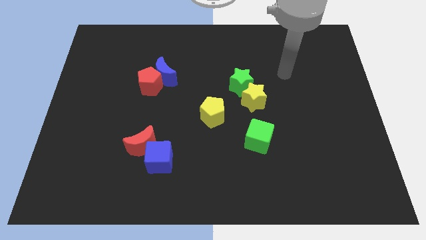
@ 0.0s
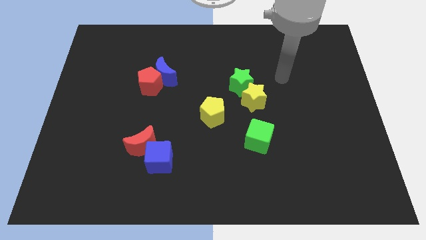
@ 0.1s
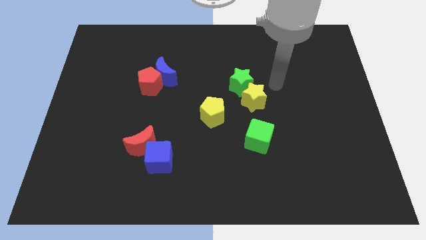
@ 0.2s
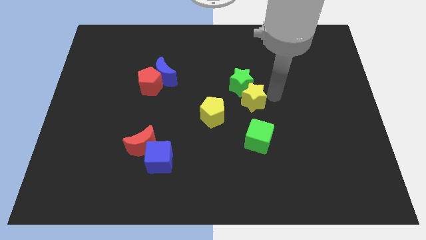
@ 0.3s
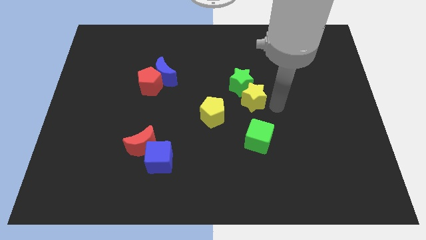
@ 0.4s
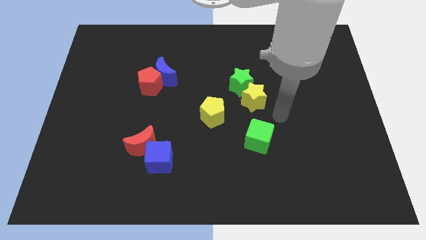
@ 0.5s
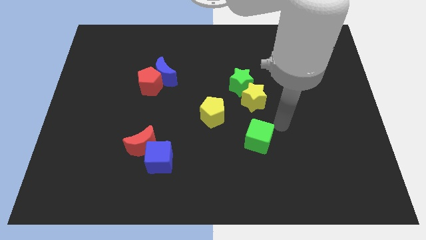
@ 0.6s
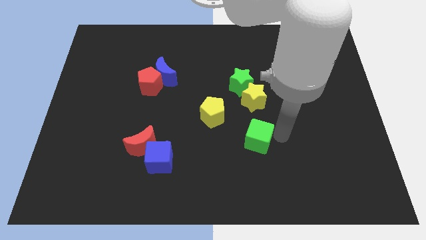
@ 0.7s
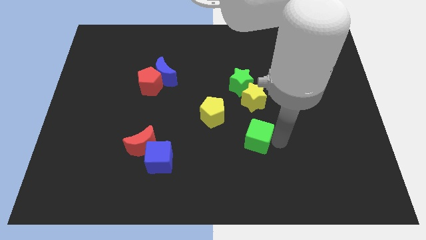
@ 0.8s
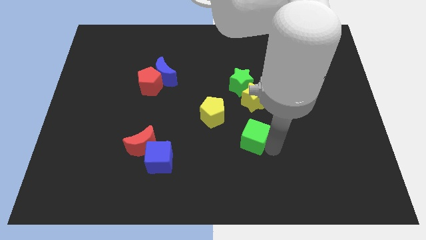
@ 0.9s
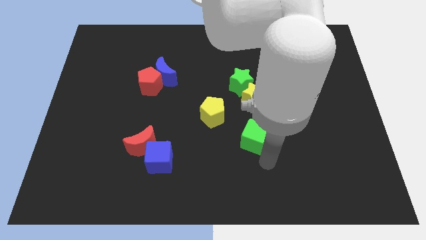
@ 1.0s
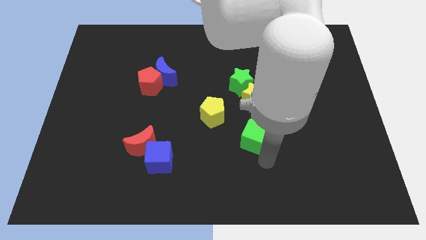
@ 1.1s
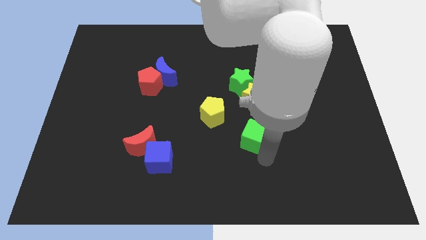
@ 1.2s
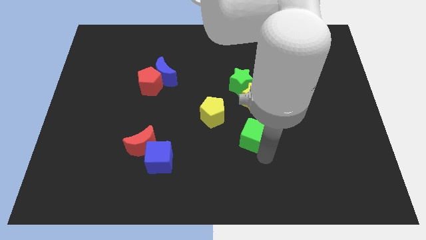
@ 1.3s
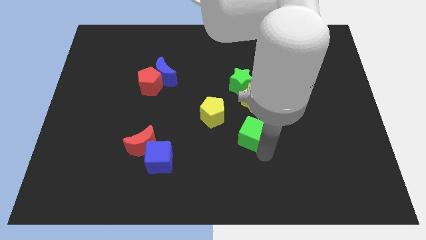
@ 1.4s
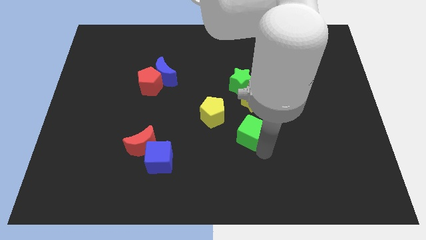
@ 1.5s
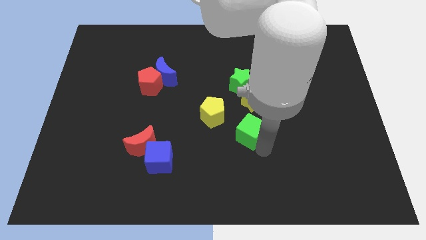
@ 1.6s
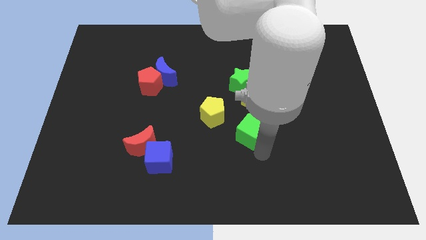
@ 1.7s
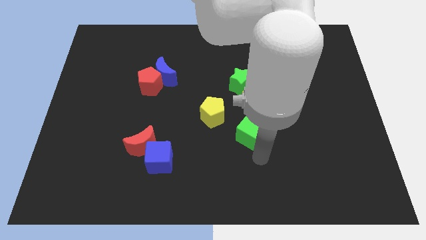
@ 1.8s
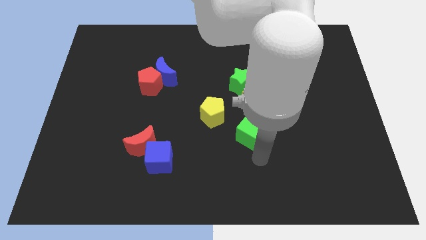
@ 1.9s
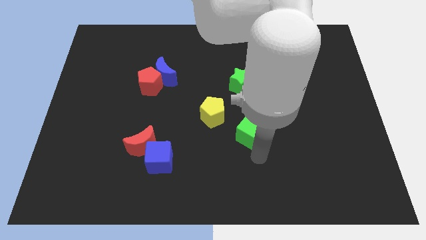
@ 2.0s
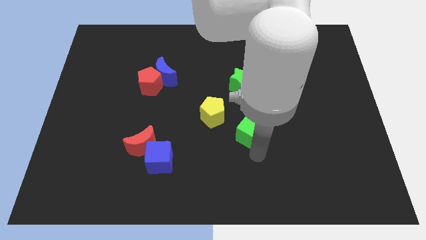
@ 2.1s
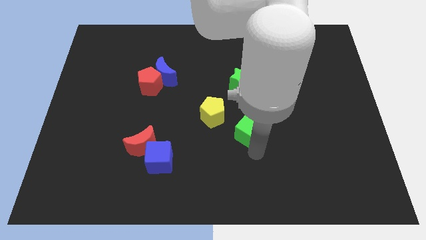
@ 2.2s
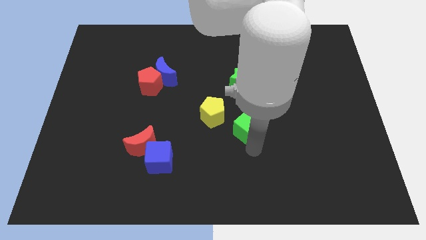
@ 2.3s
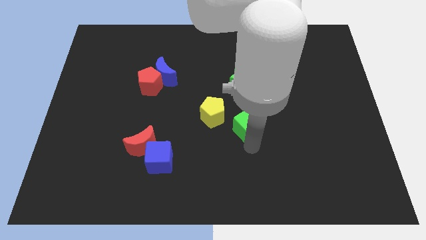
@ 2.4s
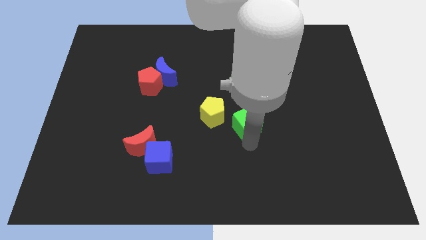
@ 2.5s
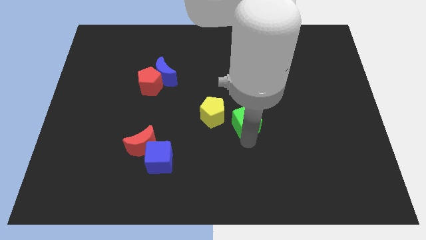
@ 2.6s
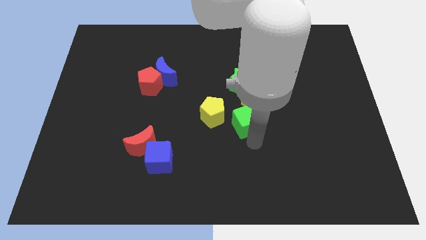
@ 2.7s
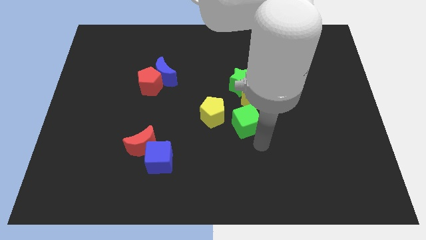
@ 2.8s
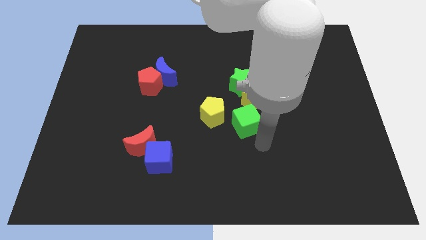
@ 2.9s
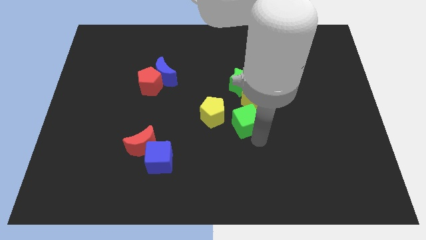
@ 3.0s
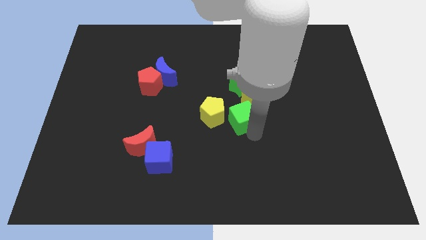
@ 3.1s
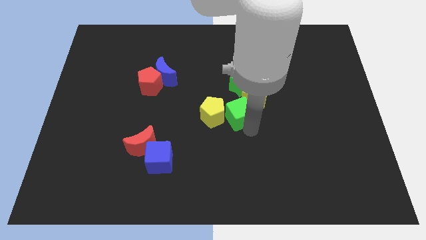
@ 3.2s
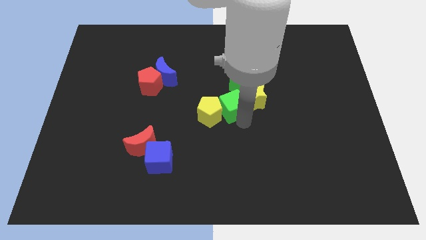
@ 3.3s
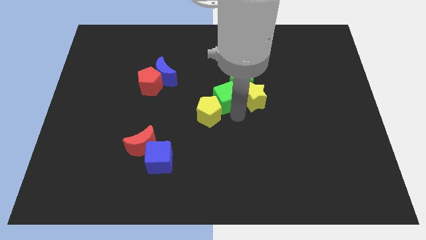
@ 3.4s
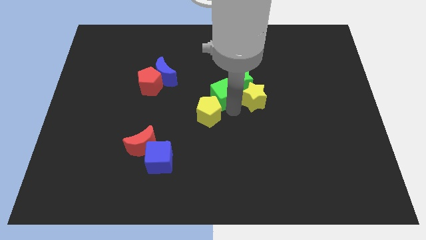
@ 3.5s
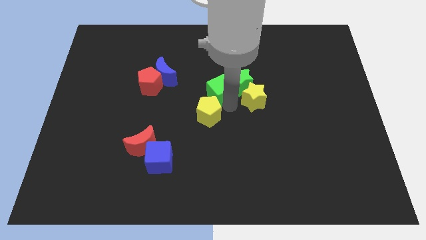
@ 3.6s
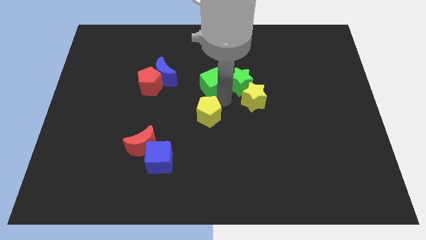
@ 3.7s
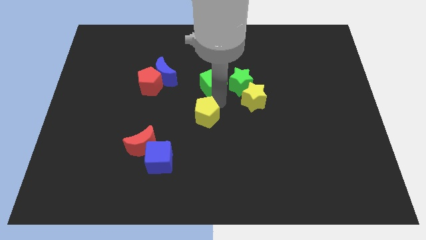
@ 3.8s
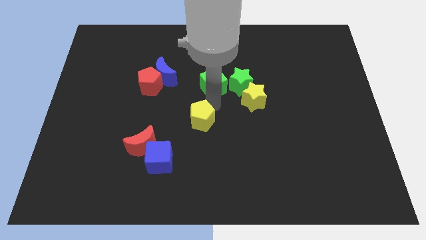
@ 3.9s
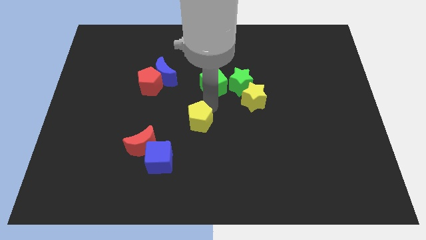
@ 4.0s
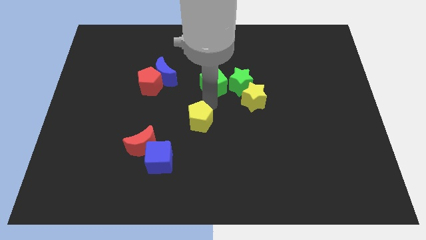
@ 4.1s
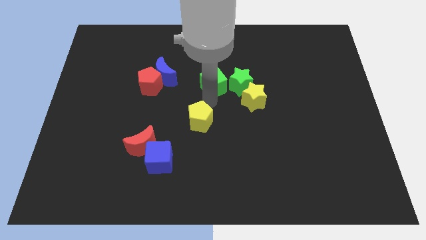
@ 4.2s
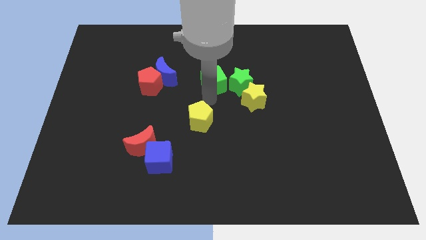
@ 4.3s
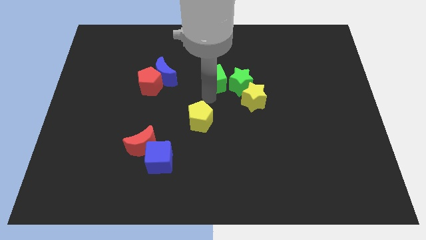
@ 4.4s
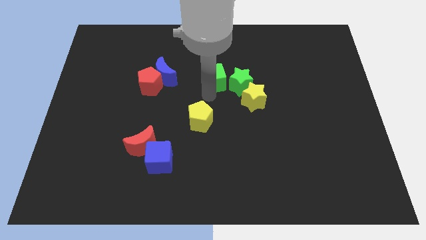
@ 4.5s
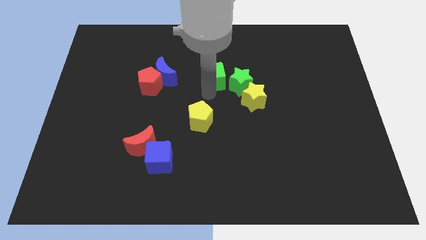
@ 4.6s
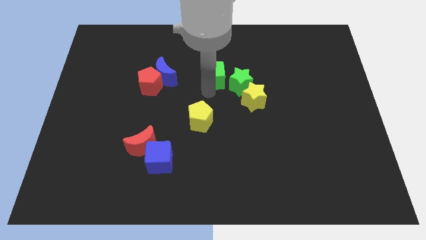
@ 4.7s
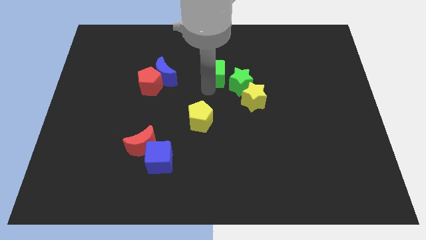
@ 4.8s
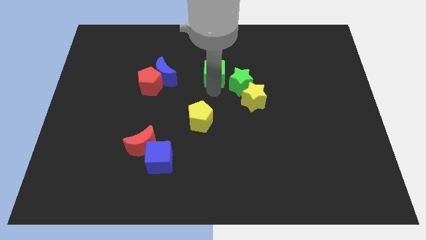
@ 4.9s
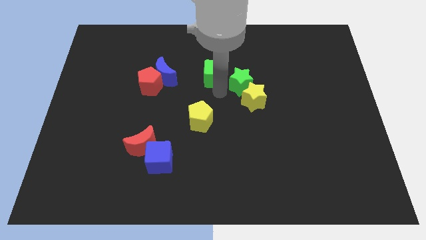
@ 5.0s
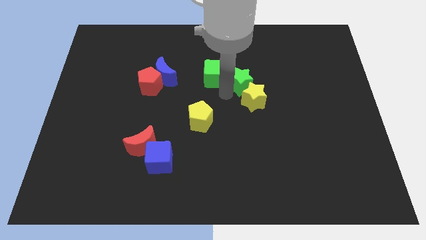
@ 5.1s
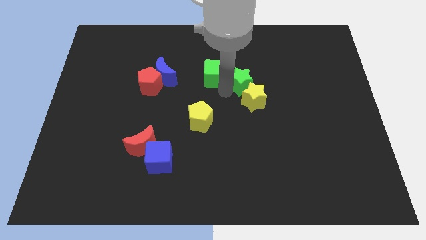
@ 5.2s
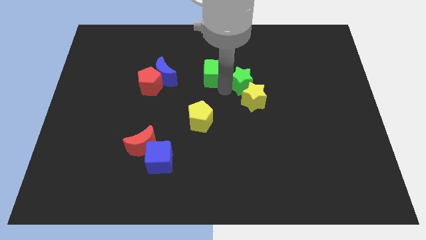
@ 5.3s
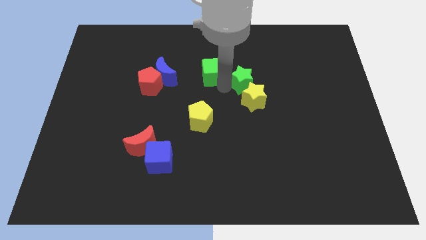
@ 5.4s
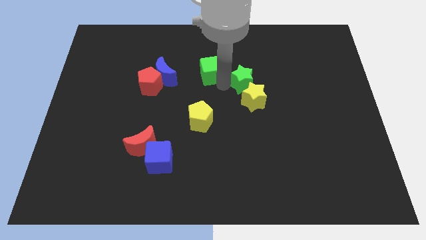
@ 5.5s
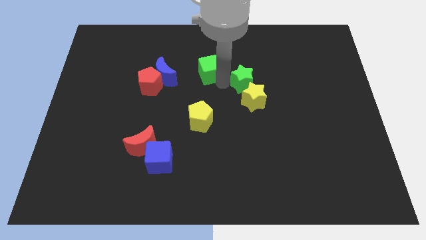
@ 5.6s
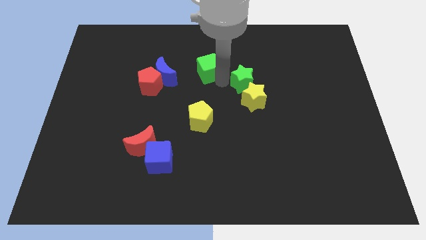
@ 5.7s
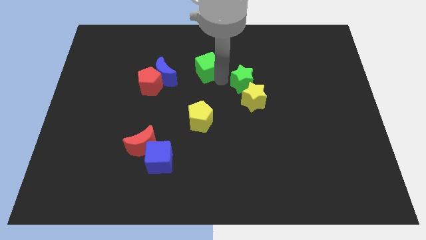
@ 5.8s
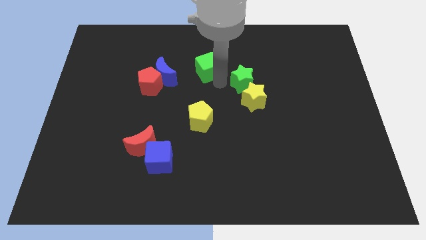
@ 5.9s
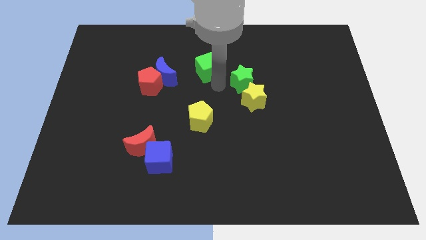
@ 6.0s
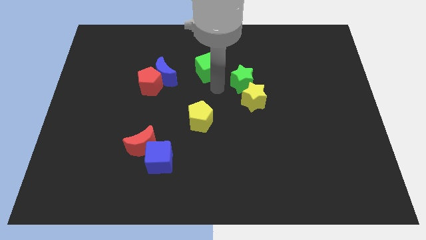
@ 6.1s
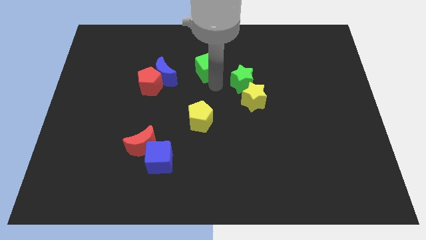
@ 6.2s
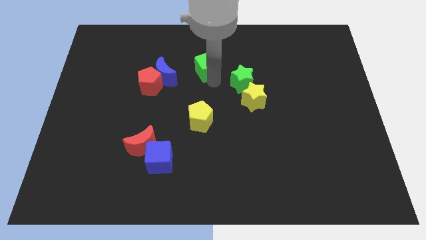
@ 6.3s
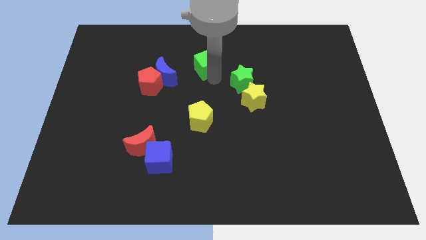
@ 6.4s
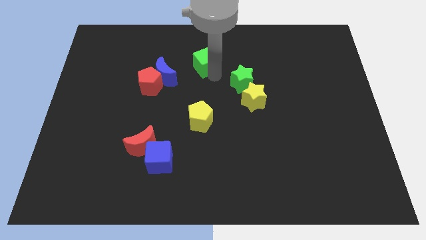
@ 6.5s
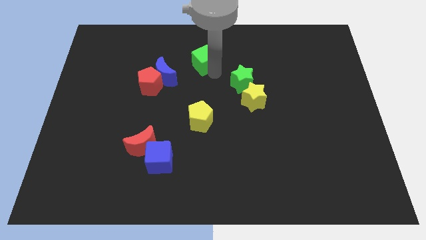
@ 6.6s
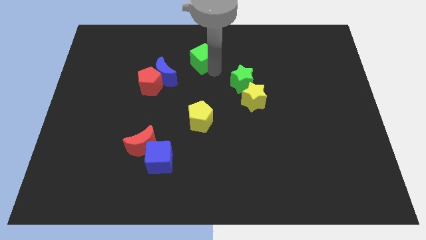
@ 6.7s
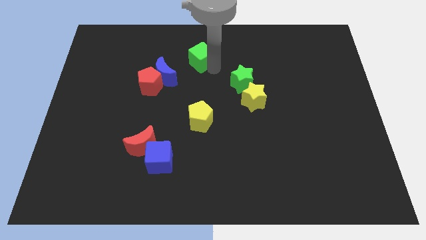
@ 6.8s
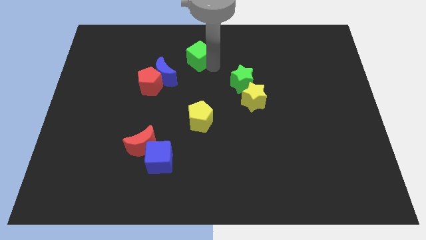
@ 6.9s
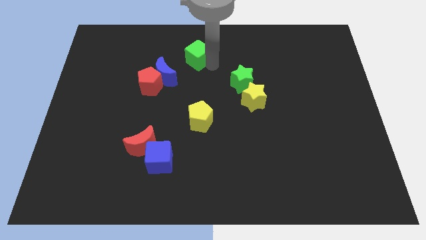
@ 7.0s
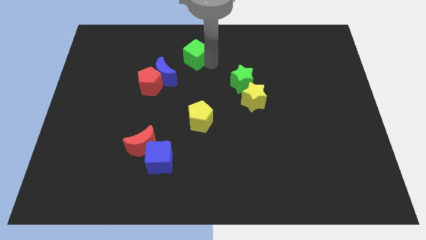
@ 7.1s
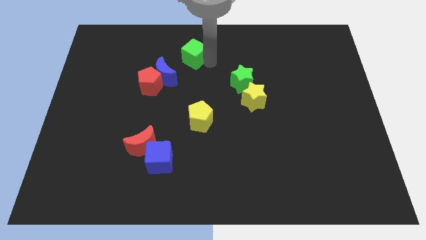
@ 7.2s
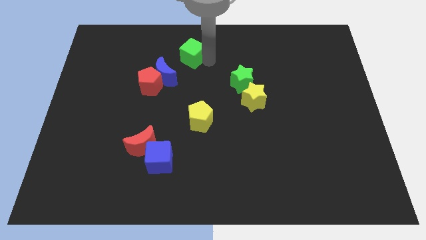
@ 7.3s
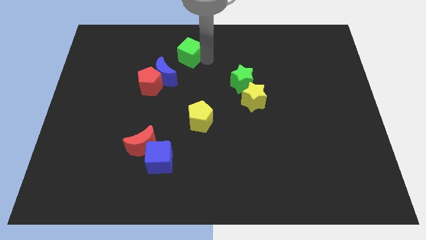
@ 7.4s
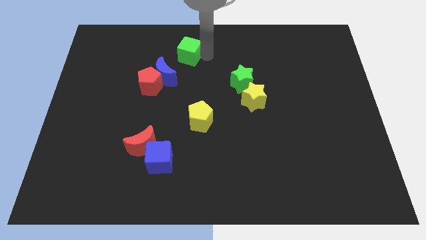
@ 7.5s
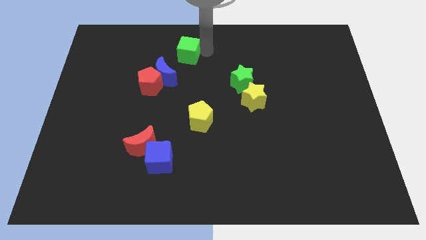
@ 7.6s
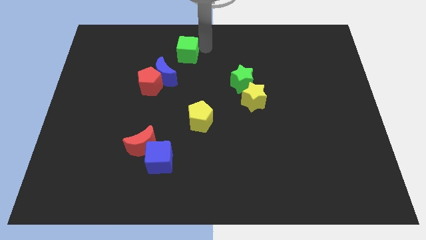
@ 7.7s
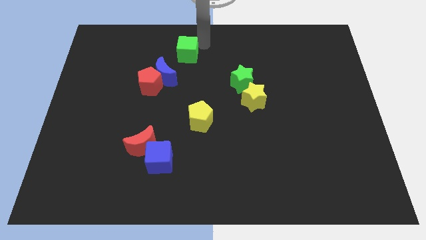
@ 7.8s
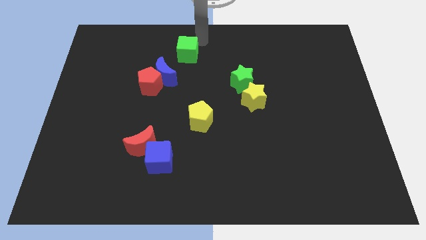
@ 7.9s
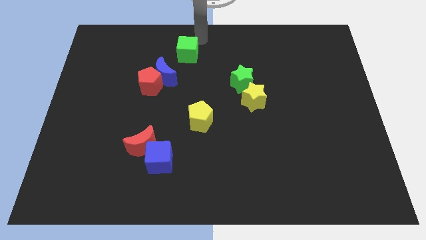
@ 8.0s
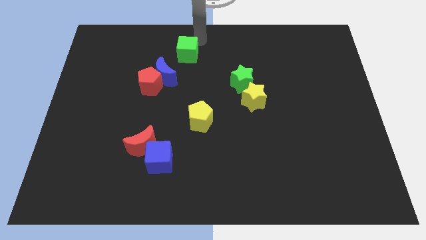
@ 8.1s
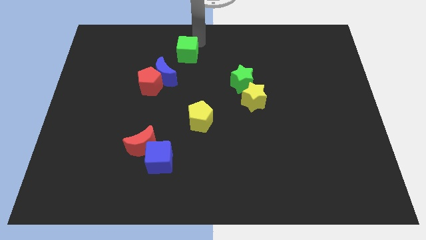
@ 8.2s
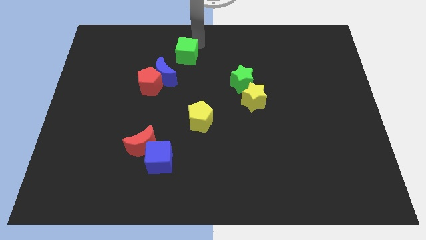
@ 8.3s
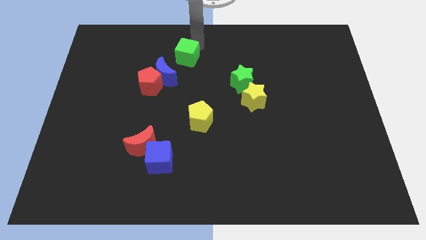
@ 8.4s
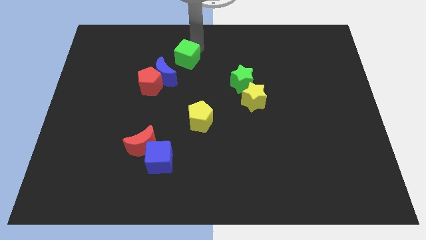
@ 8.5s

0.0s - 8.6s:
push the green cube diagonally up and to the right of the red pentagon
